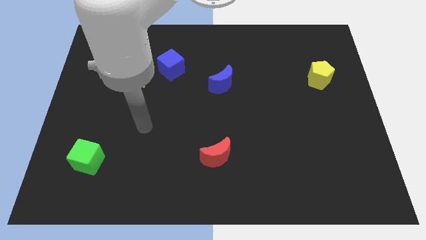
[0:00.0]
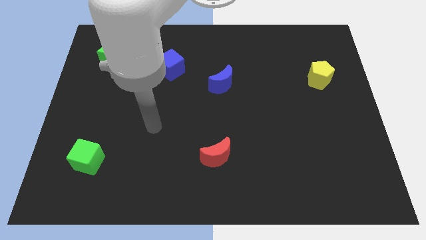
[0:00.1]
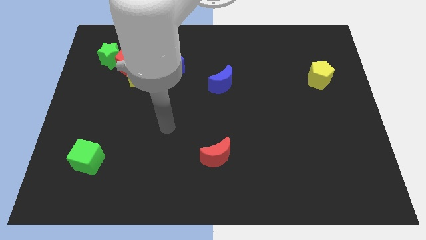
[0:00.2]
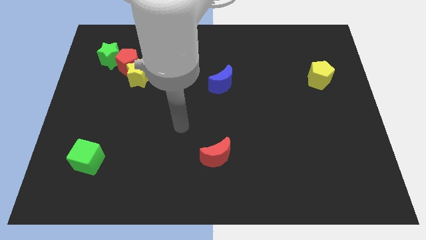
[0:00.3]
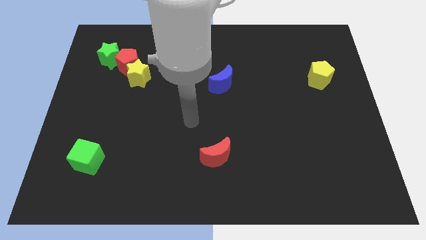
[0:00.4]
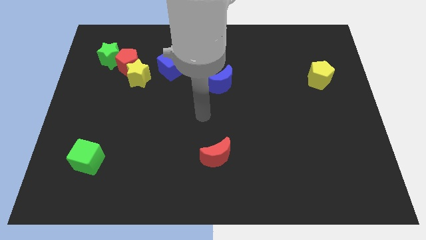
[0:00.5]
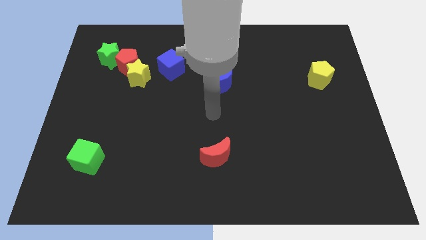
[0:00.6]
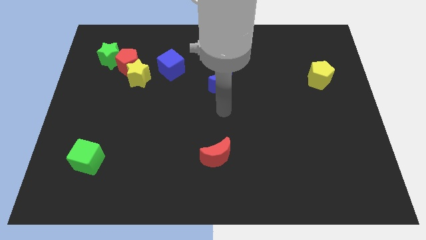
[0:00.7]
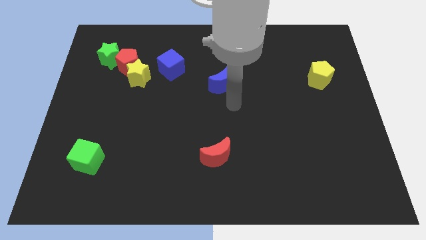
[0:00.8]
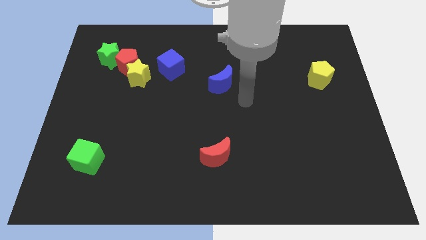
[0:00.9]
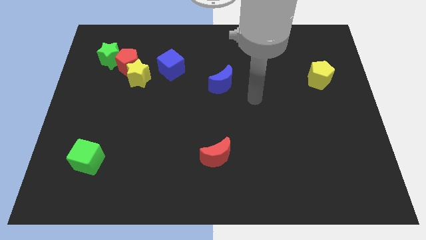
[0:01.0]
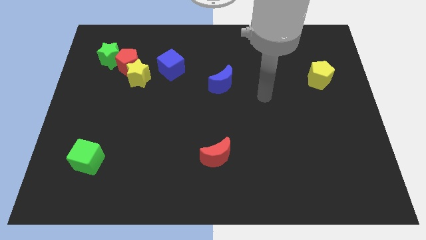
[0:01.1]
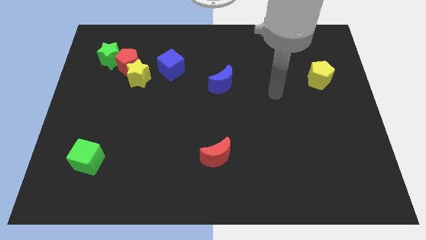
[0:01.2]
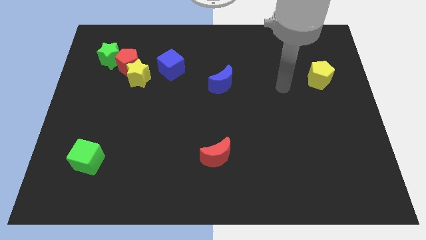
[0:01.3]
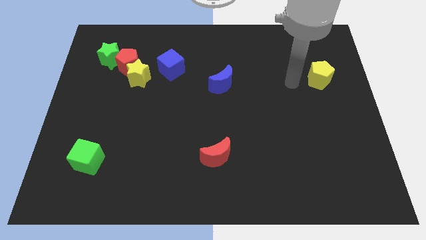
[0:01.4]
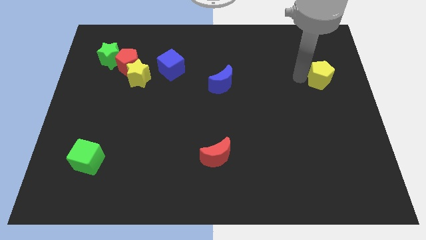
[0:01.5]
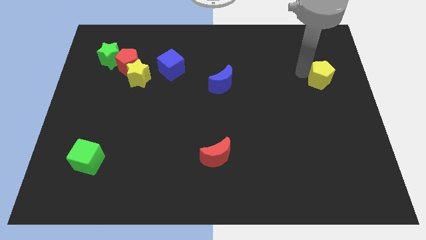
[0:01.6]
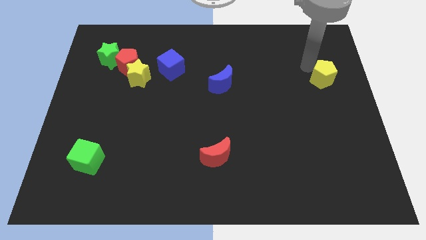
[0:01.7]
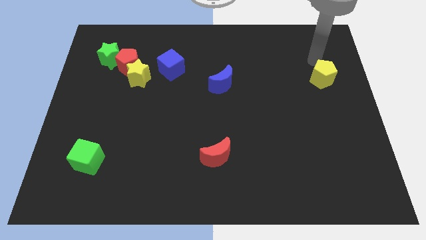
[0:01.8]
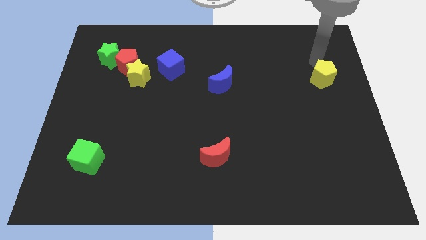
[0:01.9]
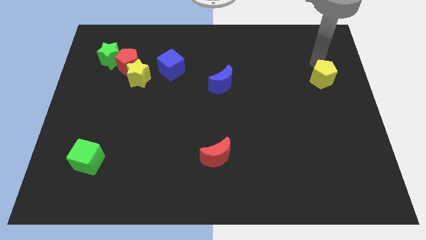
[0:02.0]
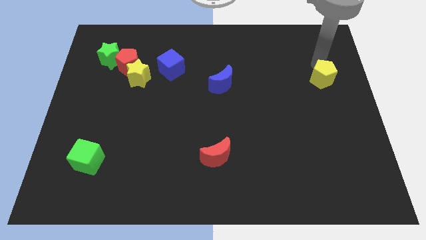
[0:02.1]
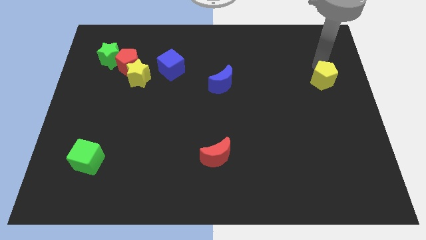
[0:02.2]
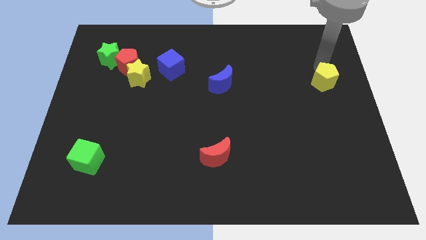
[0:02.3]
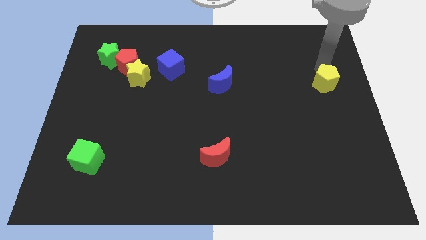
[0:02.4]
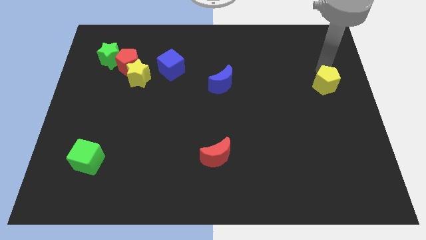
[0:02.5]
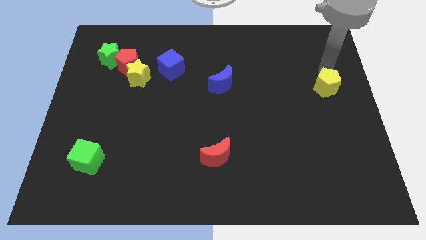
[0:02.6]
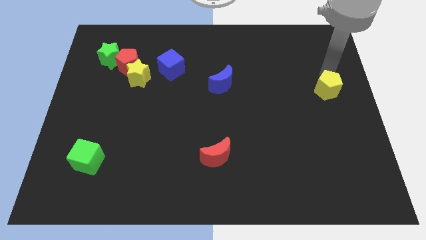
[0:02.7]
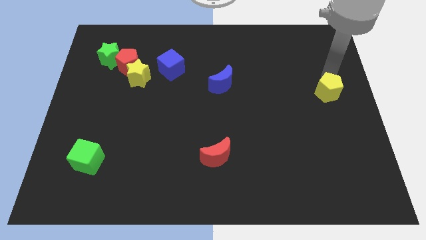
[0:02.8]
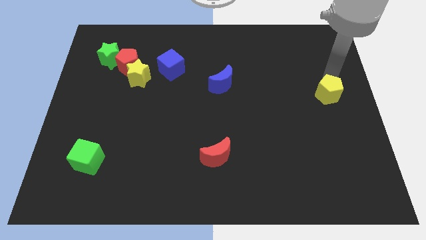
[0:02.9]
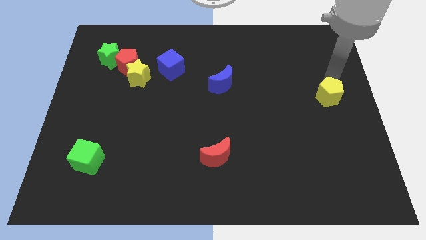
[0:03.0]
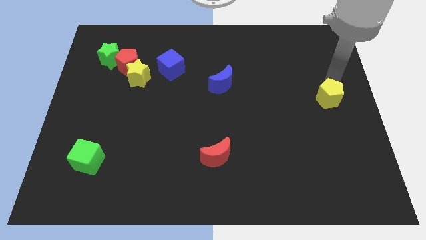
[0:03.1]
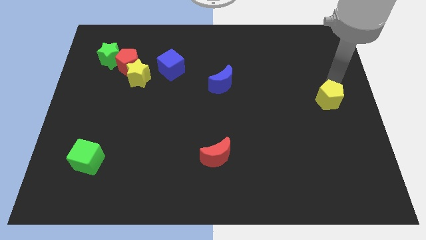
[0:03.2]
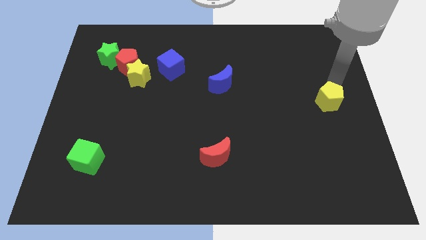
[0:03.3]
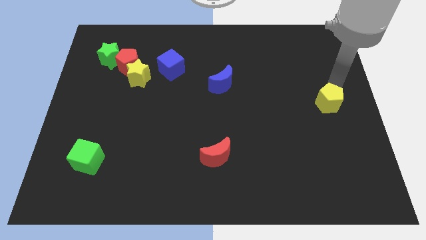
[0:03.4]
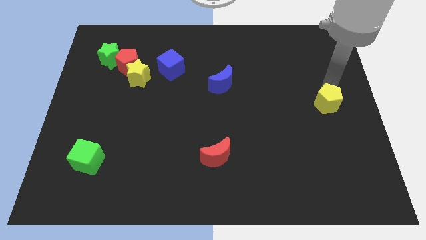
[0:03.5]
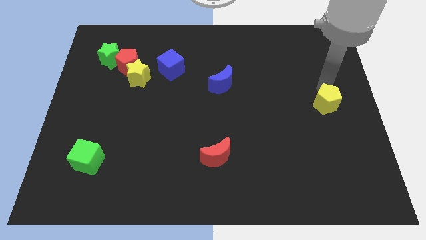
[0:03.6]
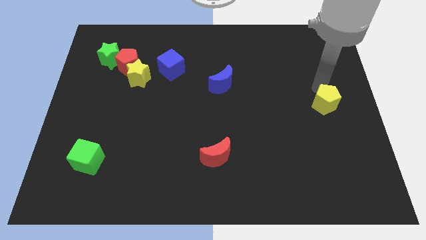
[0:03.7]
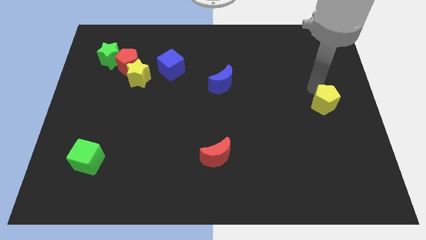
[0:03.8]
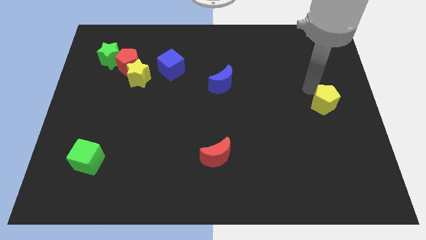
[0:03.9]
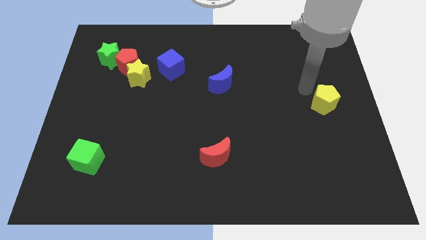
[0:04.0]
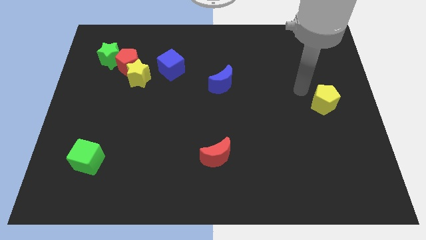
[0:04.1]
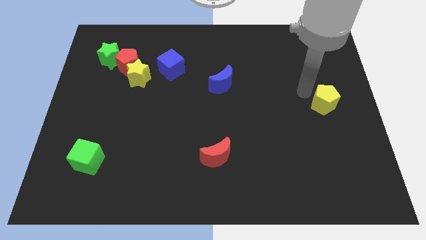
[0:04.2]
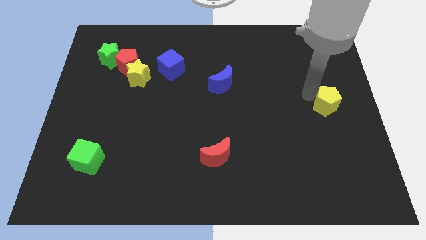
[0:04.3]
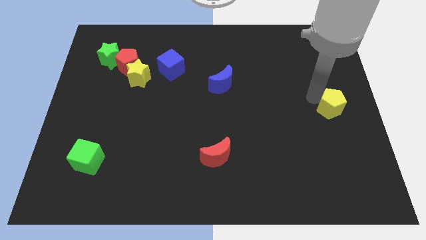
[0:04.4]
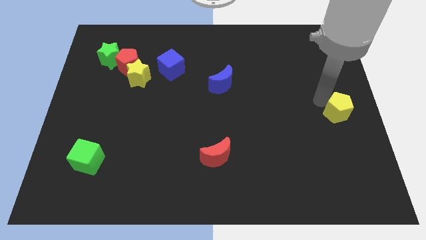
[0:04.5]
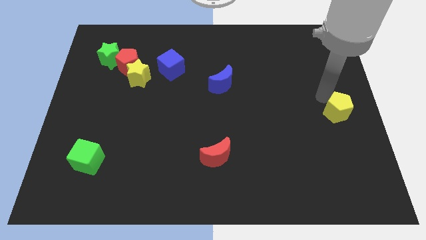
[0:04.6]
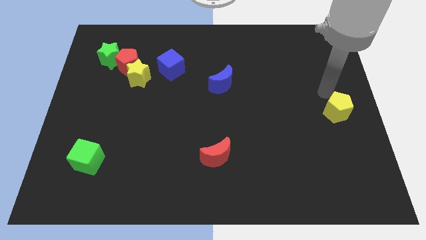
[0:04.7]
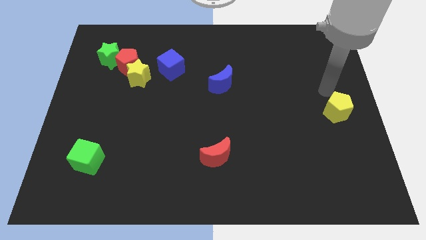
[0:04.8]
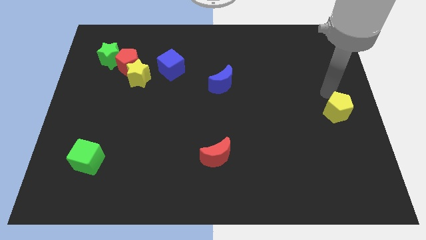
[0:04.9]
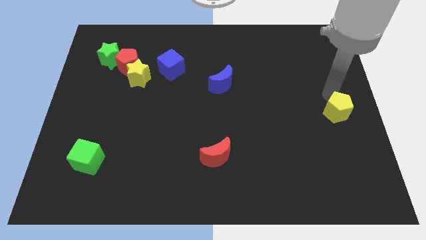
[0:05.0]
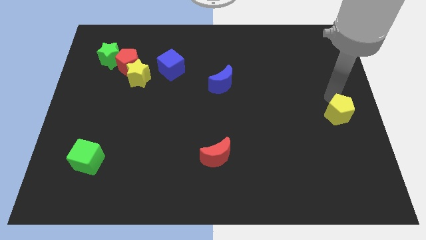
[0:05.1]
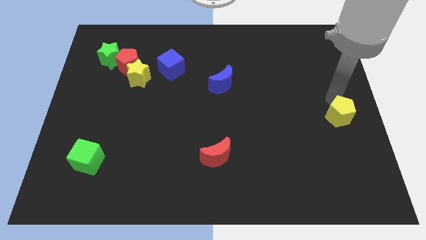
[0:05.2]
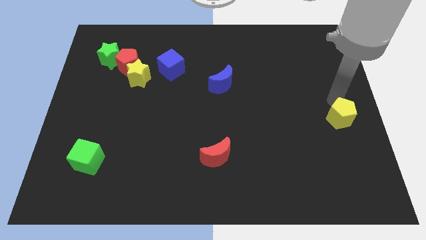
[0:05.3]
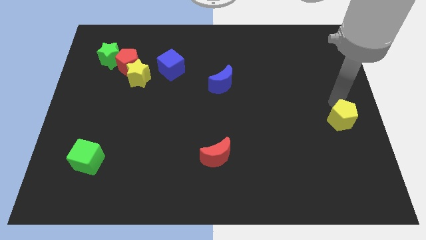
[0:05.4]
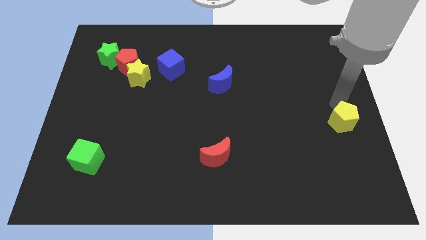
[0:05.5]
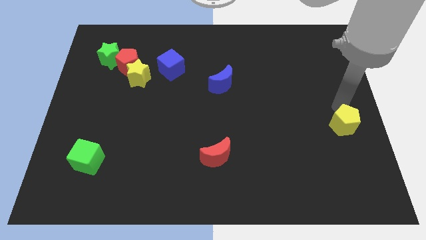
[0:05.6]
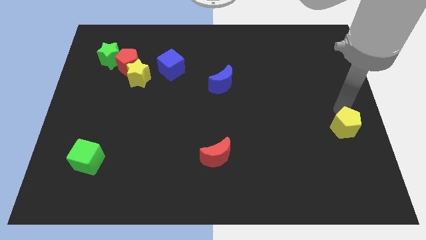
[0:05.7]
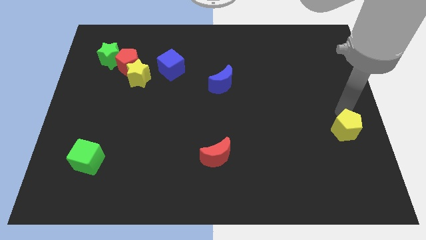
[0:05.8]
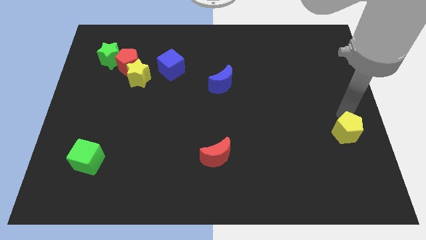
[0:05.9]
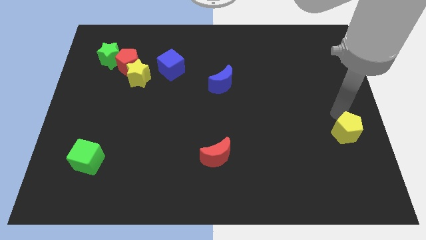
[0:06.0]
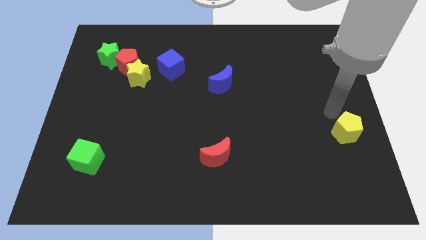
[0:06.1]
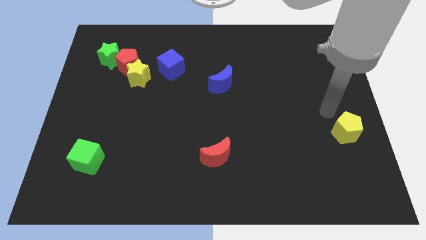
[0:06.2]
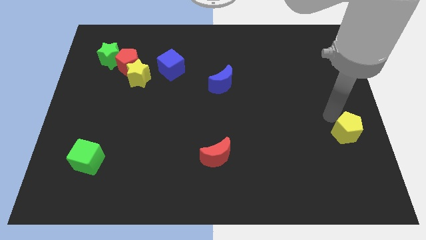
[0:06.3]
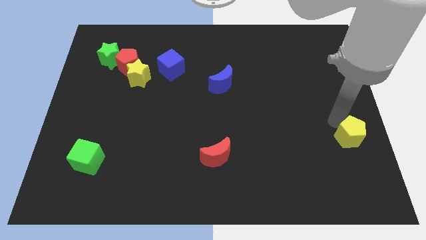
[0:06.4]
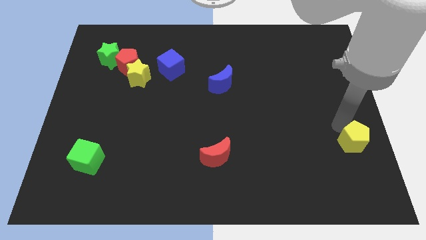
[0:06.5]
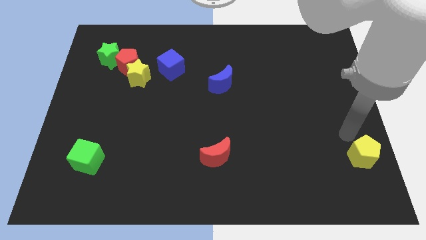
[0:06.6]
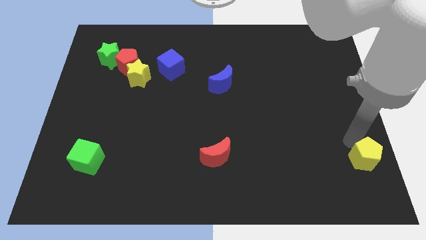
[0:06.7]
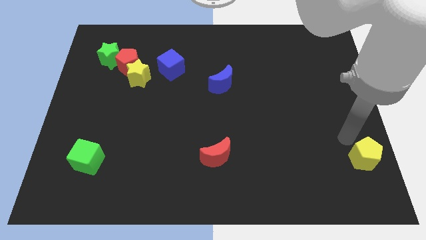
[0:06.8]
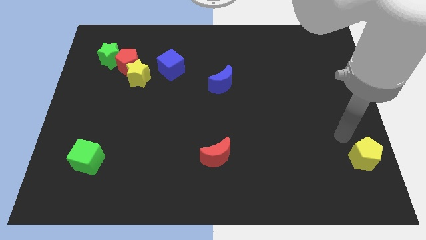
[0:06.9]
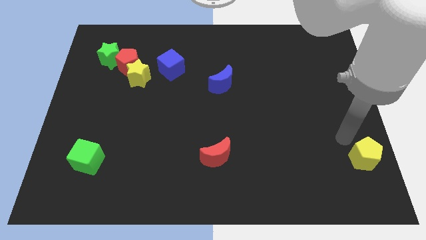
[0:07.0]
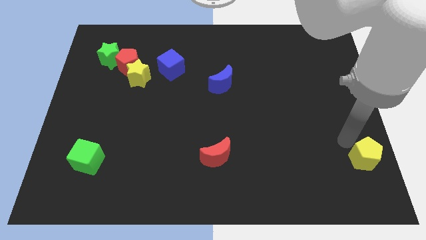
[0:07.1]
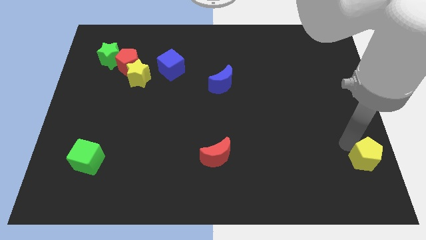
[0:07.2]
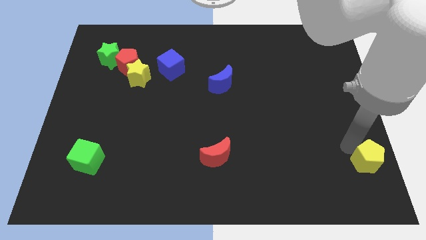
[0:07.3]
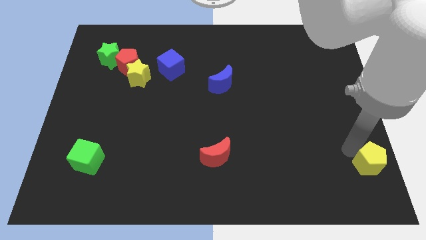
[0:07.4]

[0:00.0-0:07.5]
put the yellow pentagon to the bottom right corner
